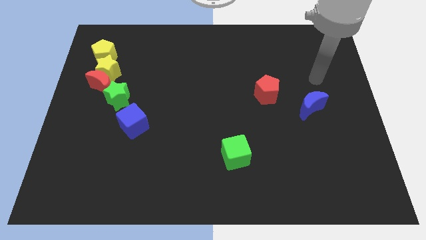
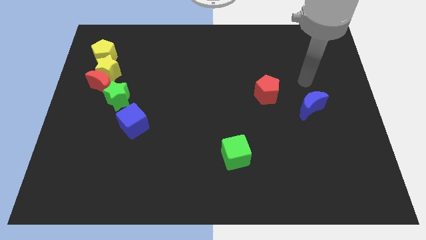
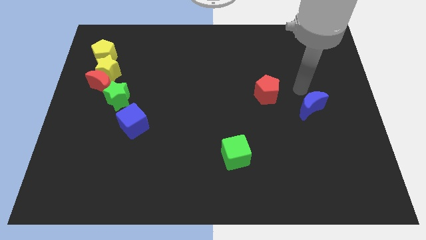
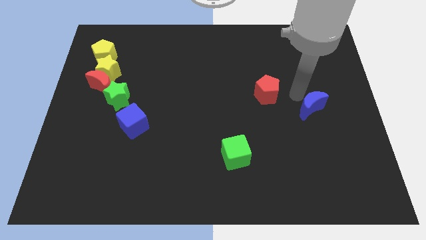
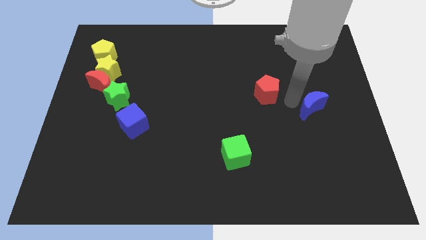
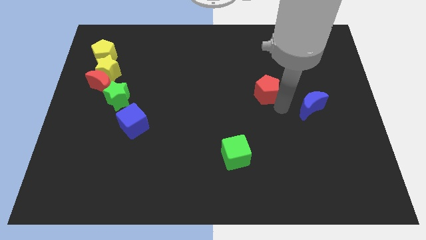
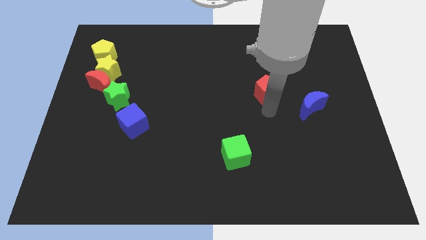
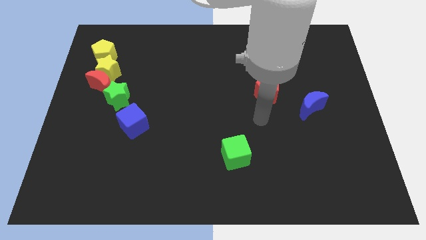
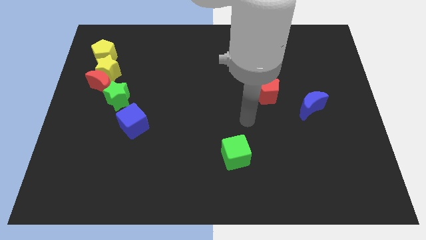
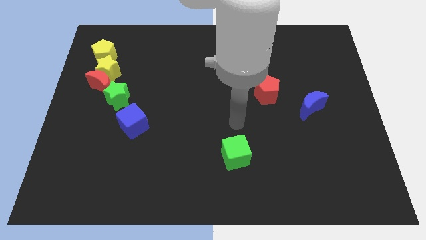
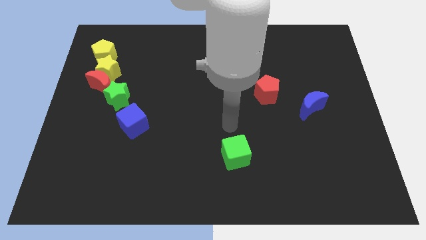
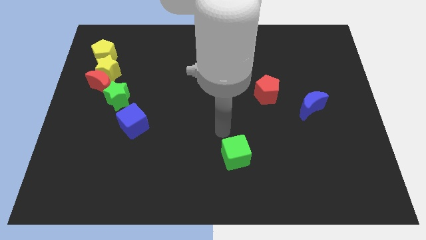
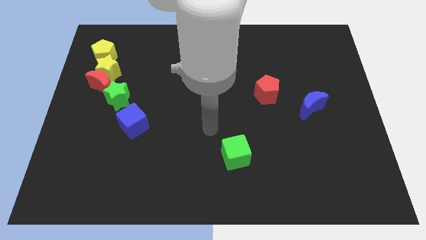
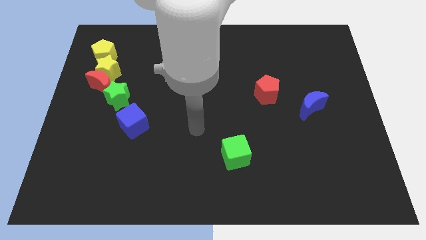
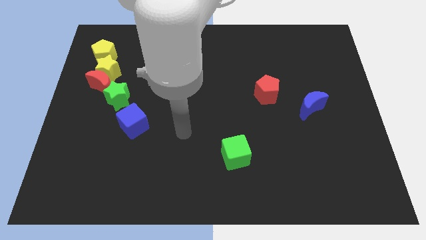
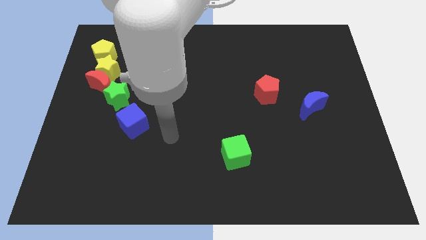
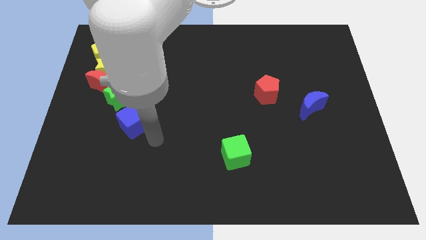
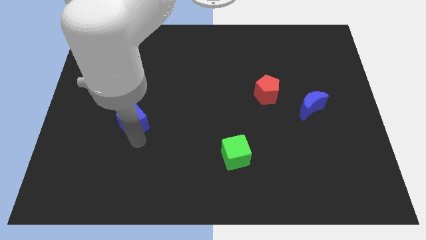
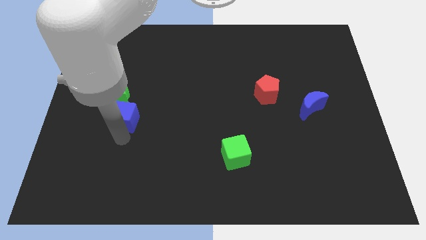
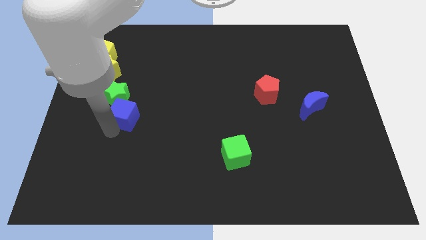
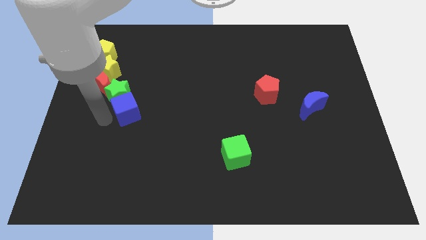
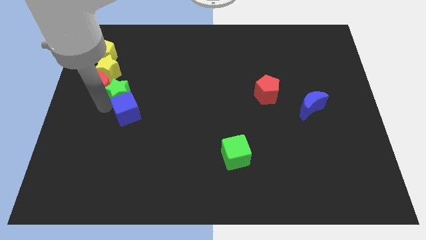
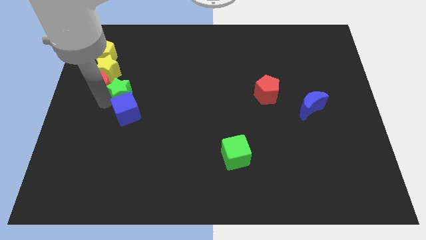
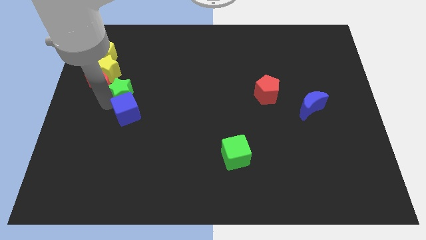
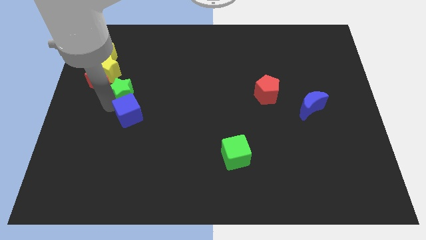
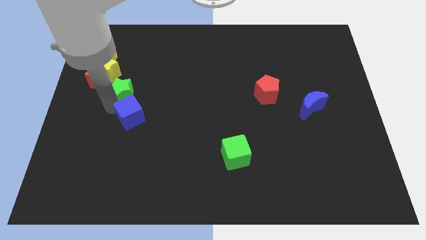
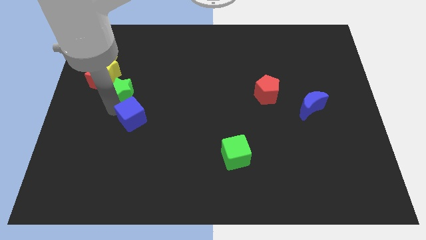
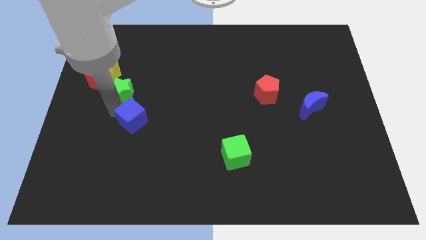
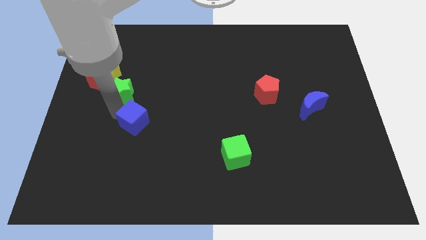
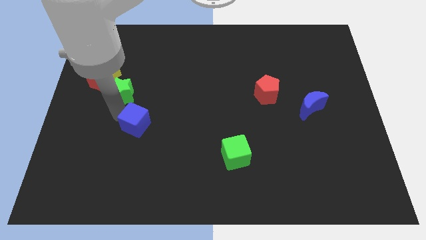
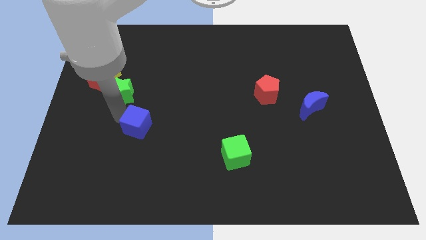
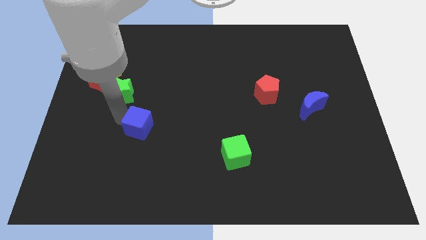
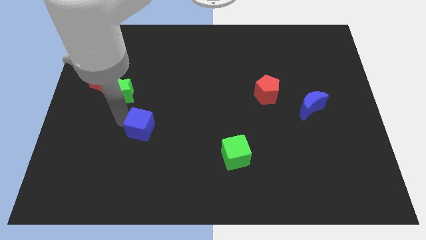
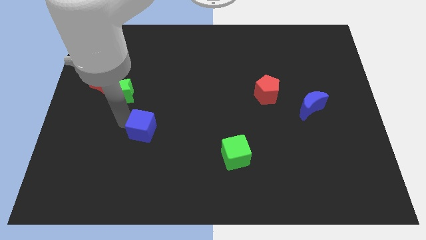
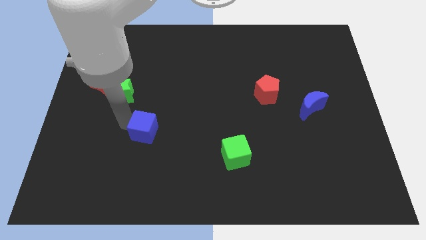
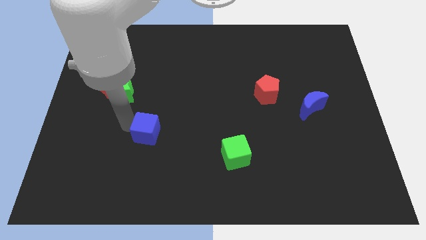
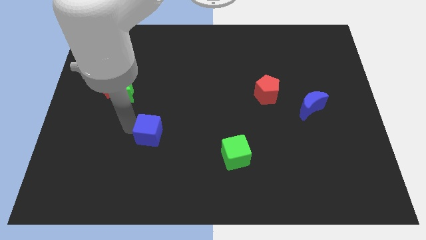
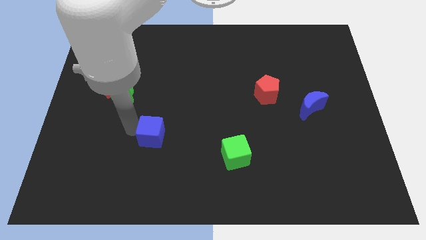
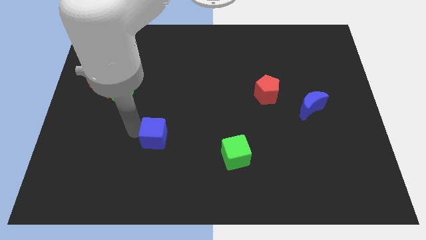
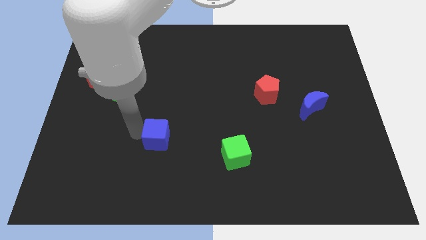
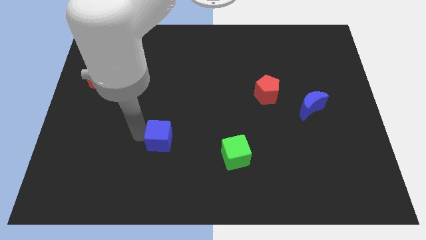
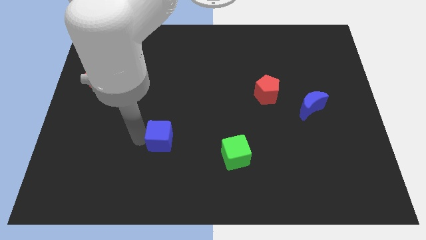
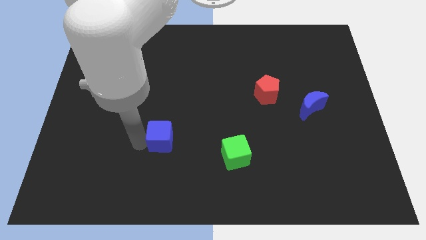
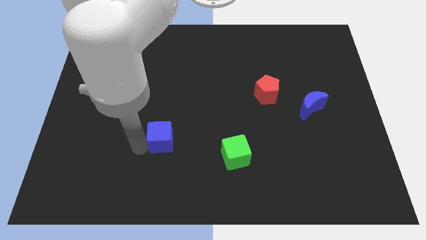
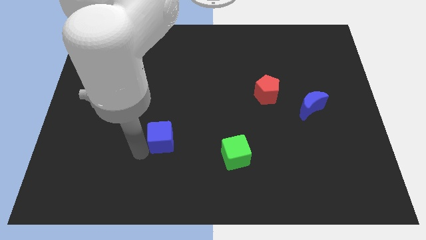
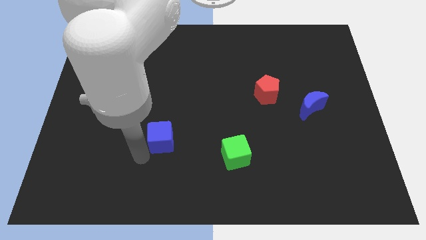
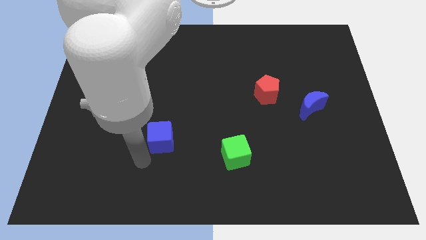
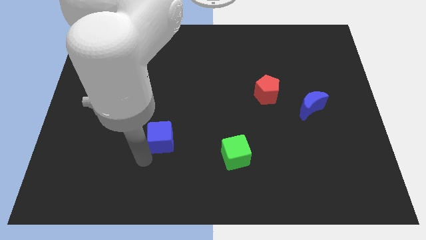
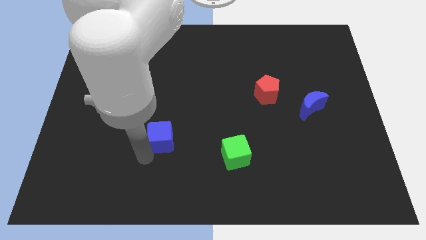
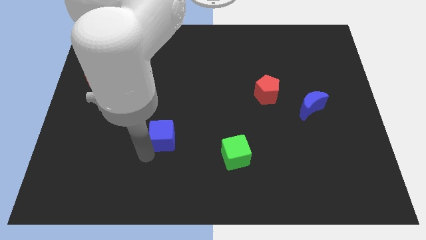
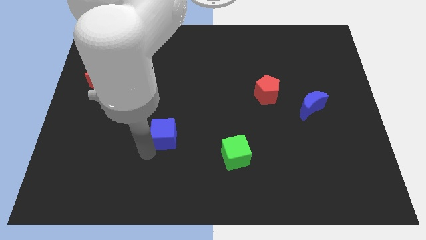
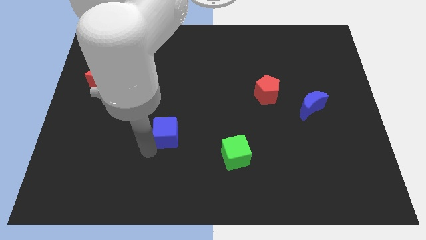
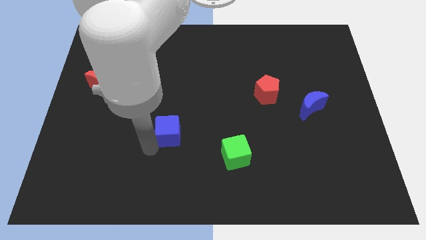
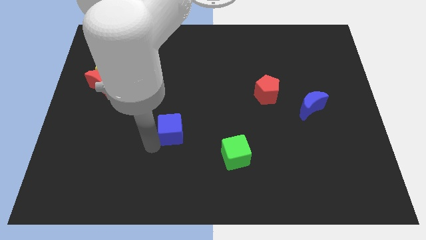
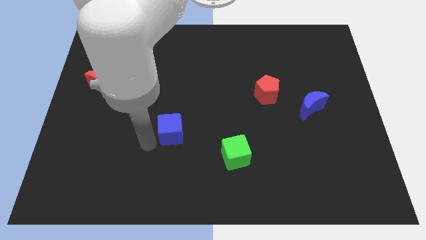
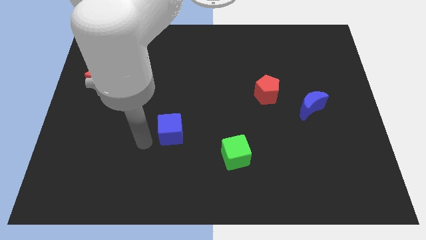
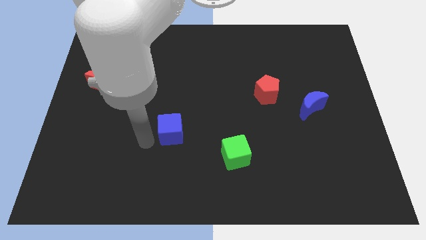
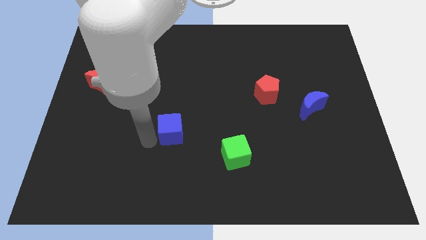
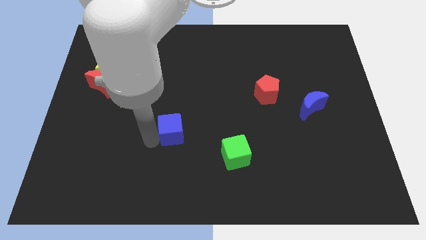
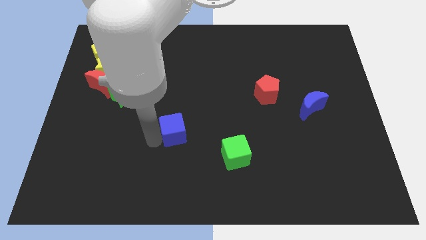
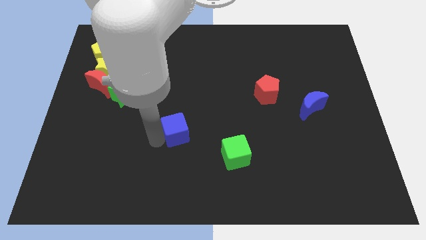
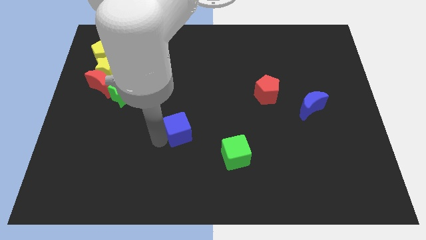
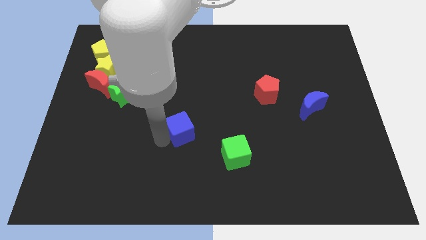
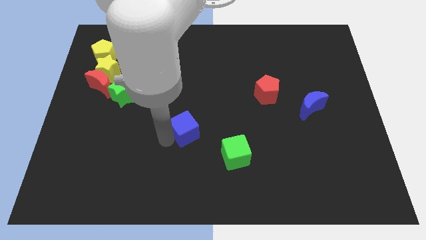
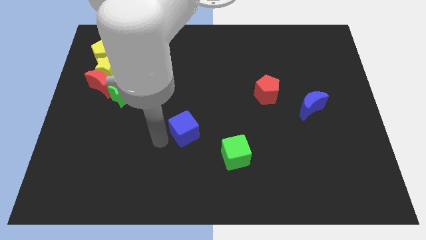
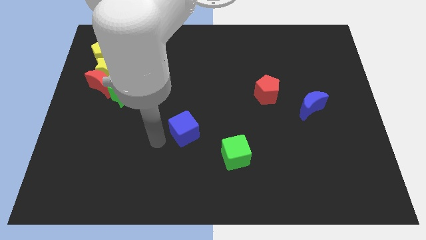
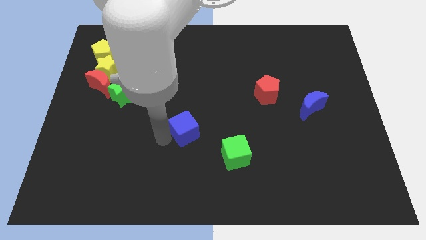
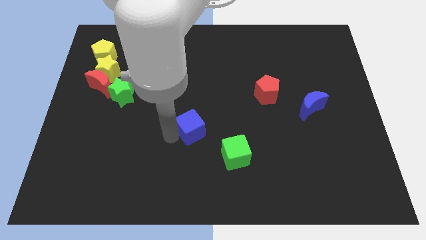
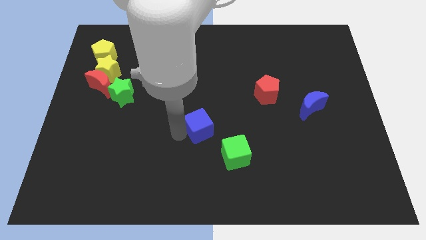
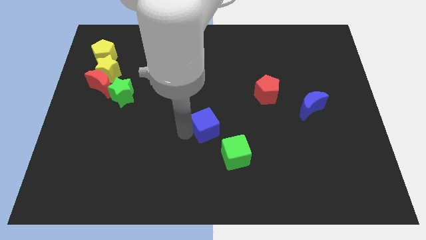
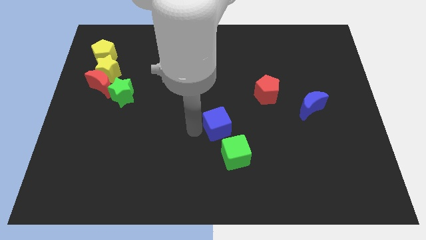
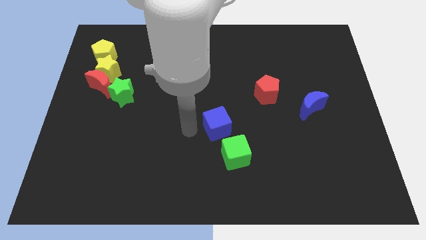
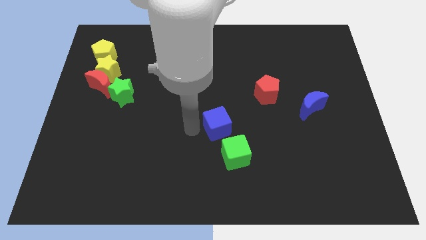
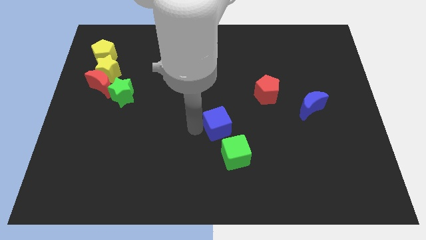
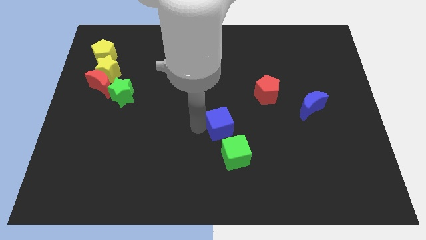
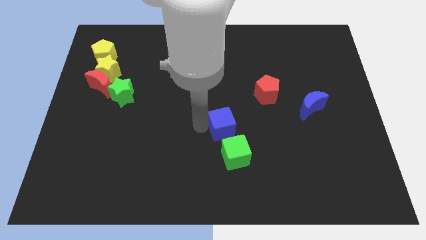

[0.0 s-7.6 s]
push the blue cube to the right

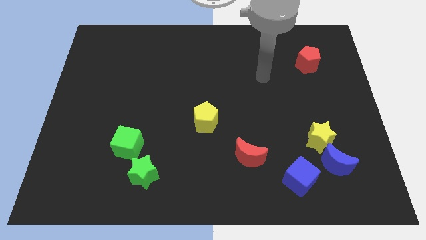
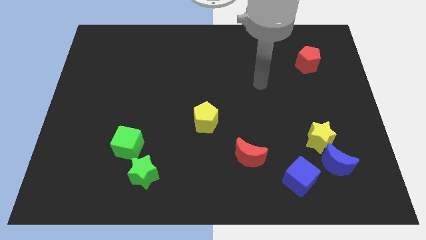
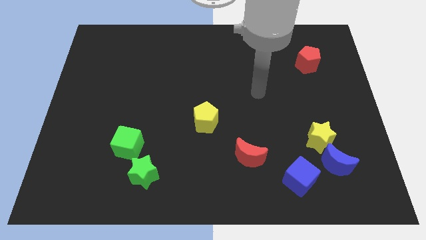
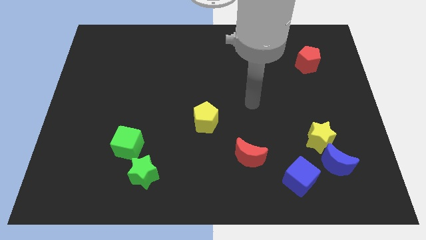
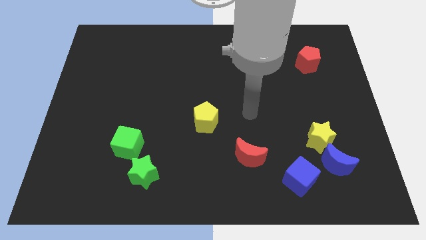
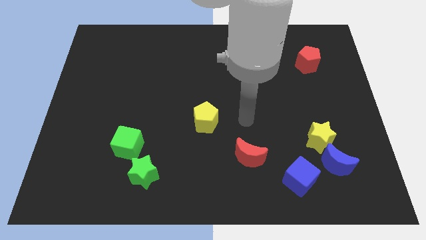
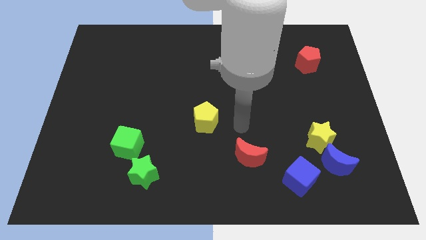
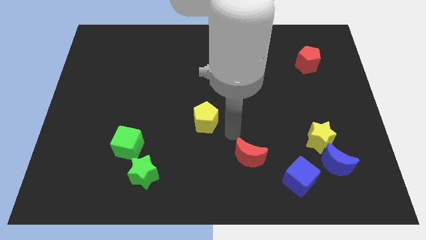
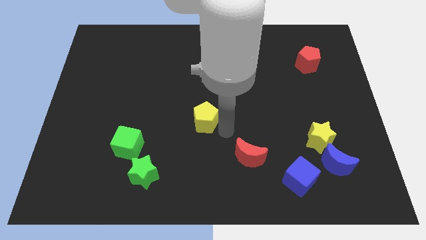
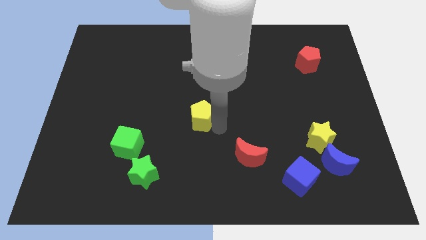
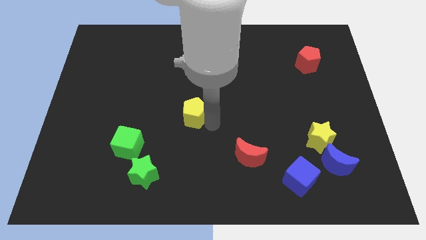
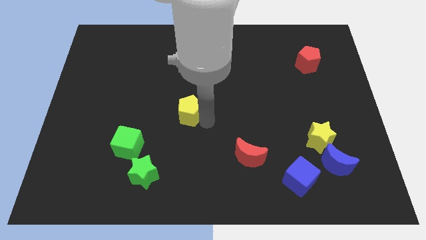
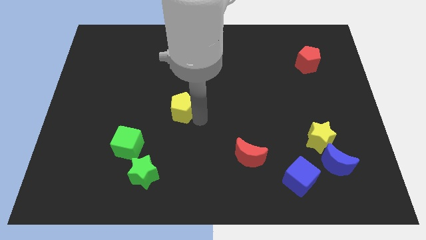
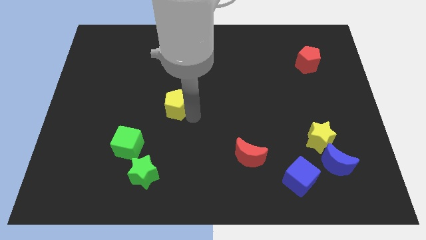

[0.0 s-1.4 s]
push the yellow pentagon a little diagonally upwards and left
